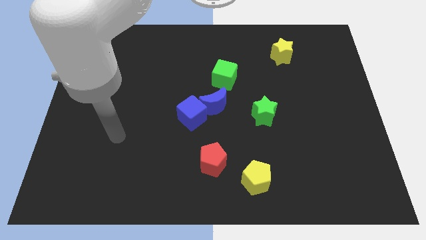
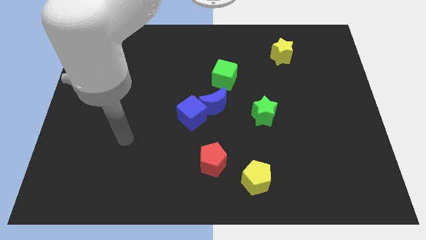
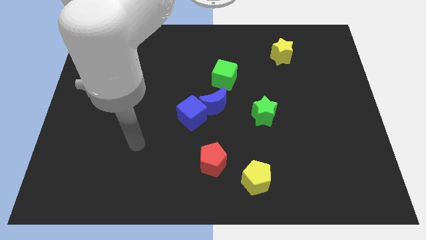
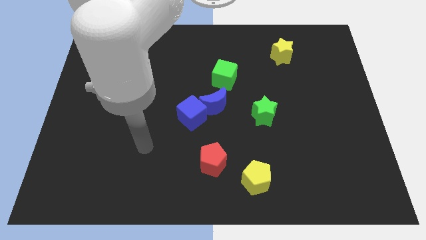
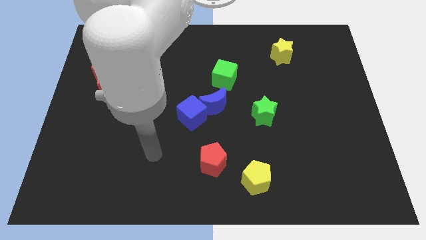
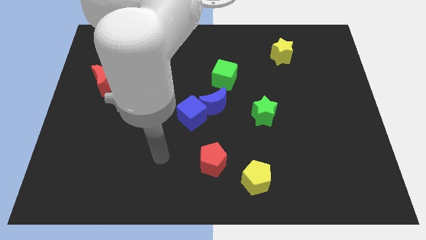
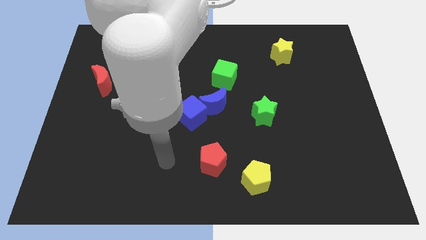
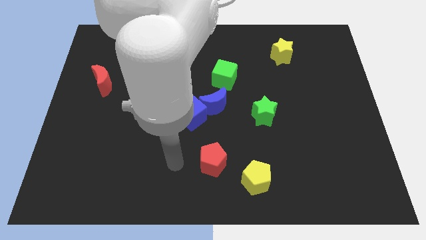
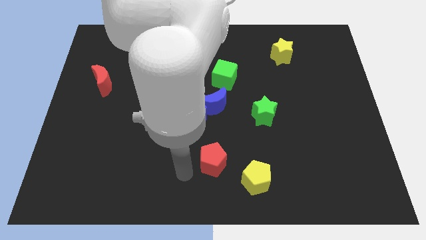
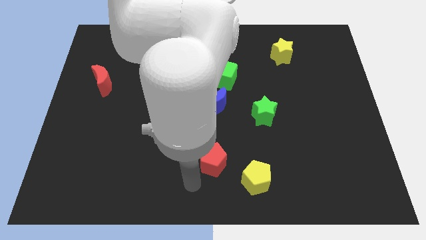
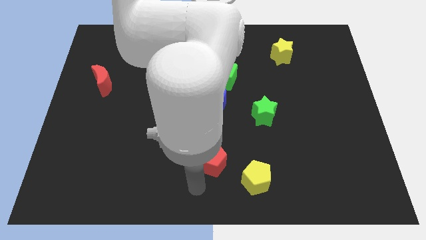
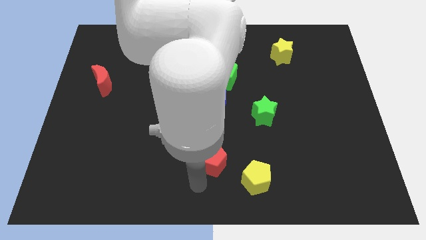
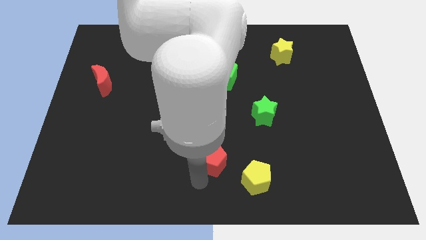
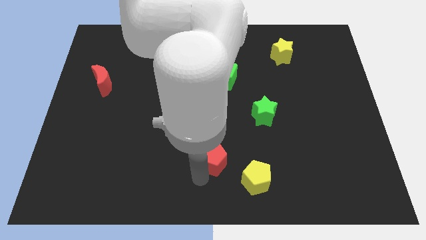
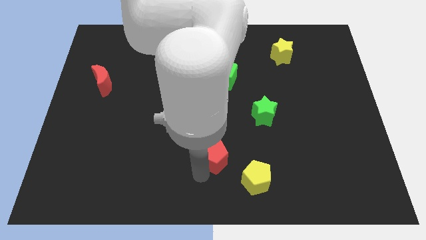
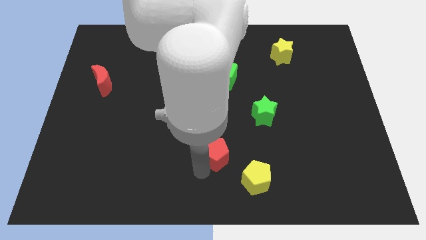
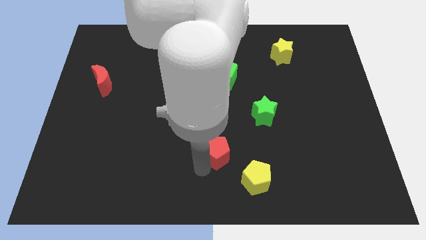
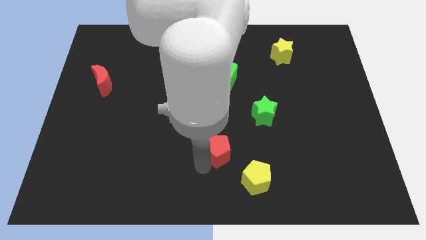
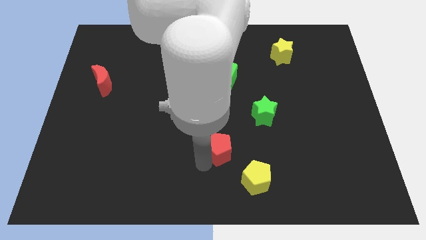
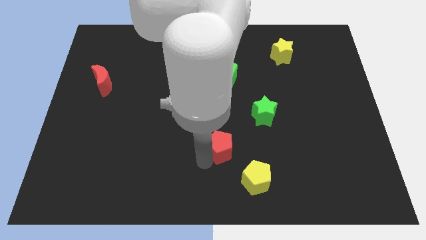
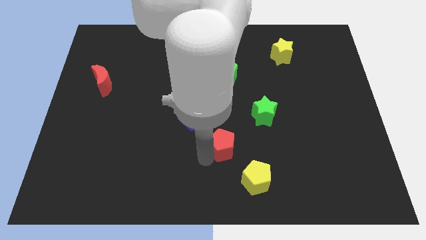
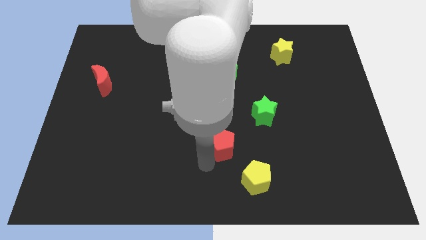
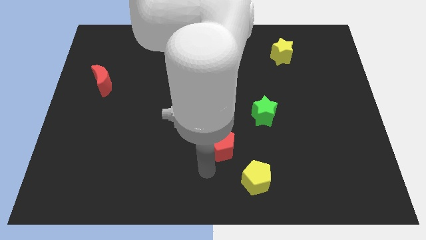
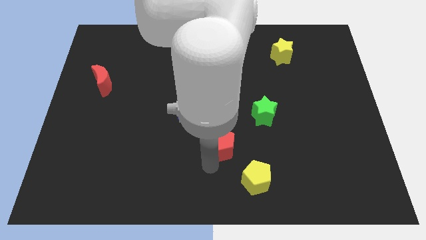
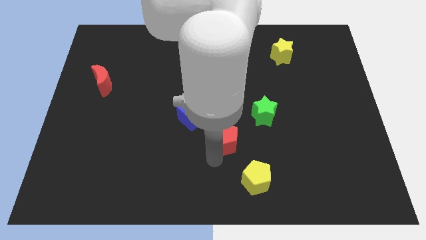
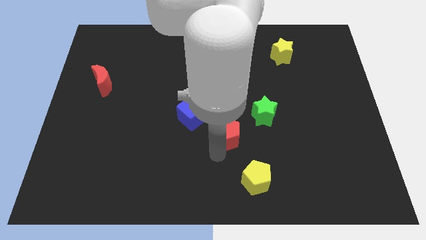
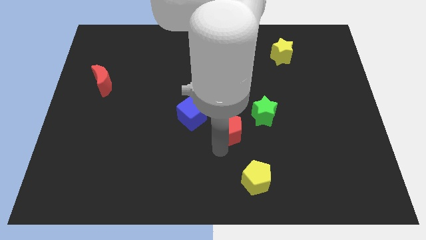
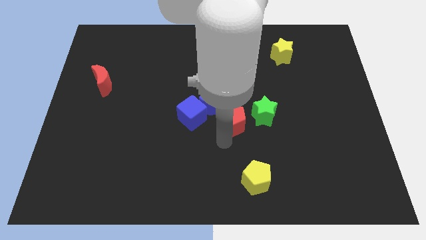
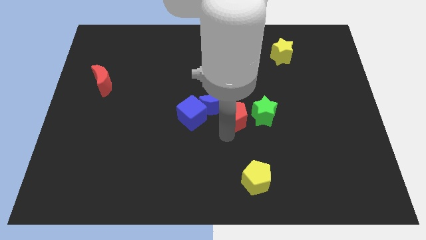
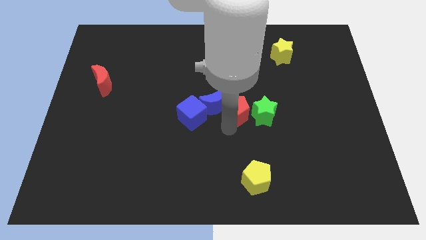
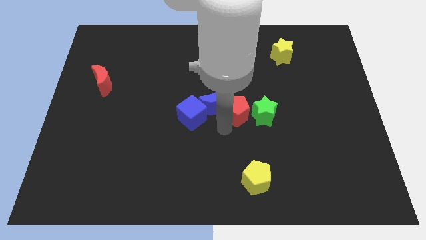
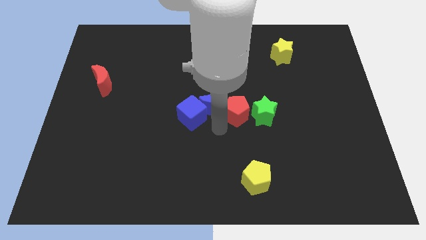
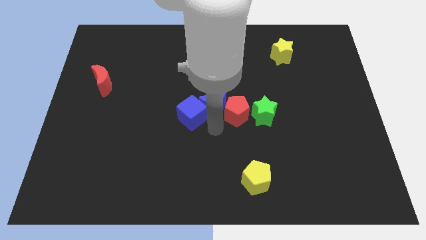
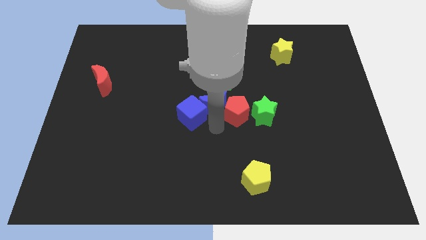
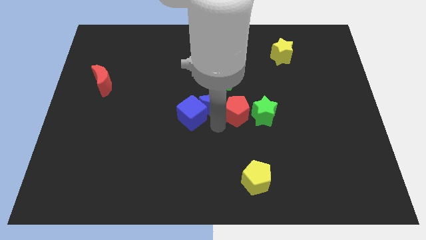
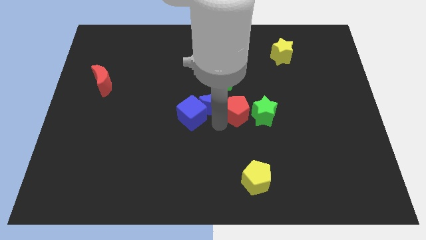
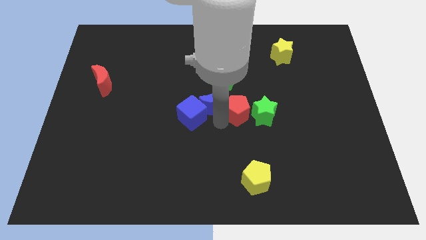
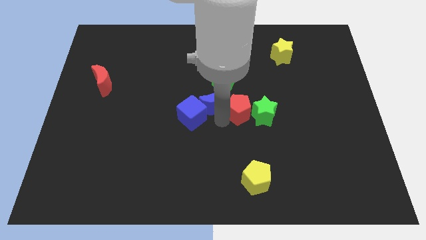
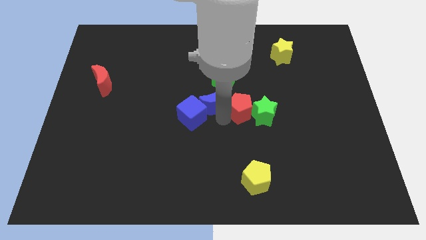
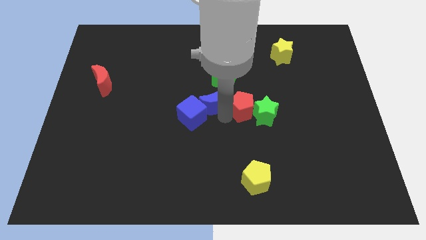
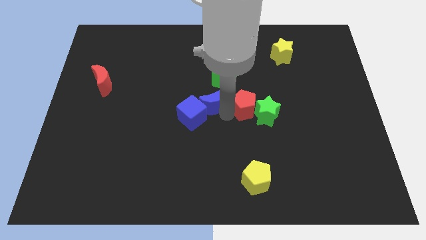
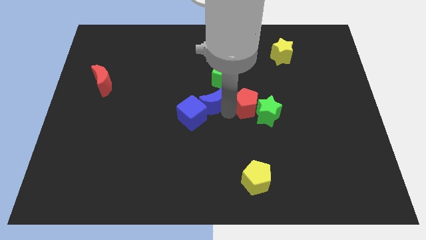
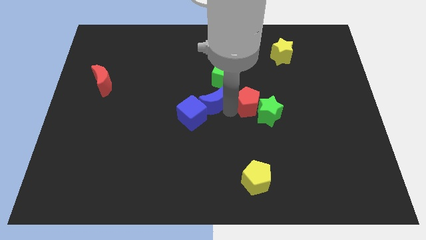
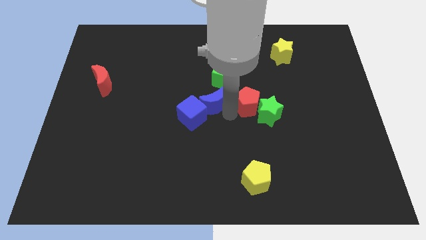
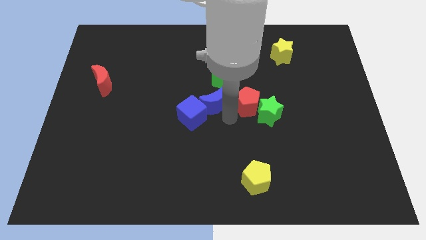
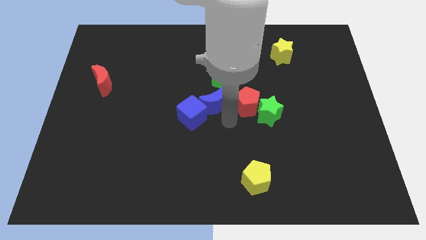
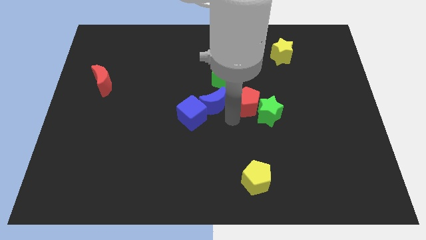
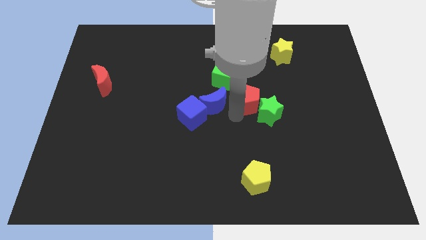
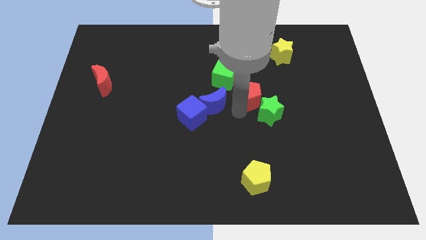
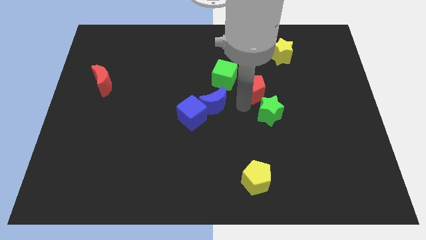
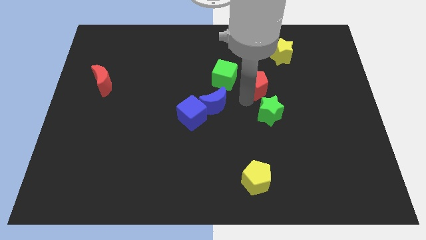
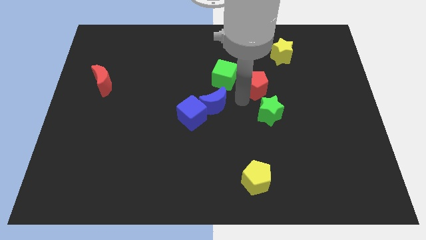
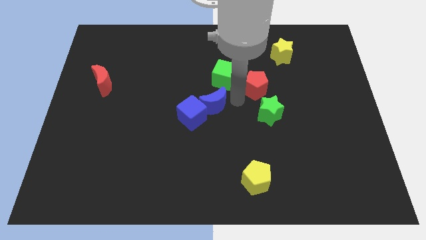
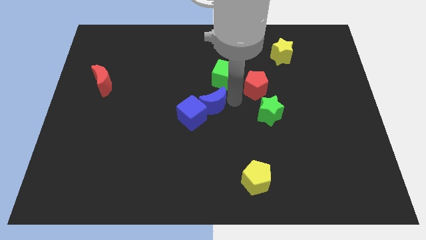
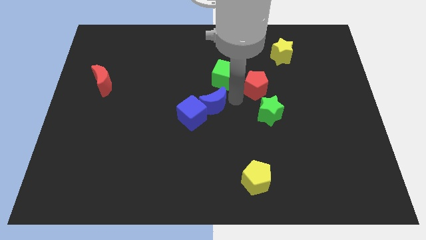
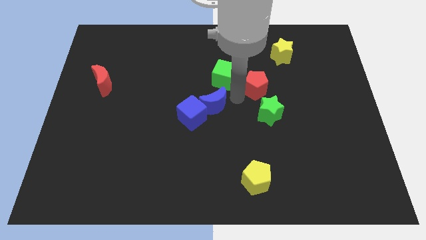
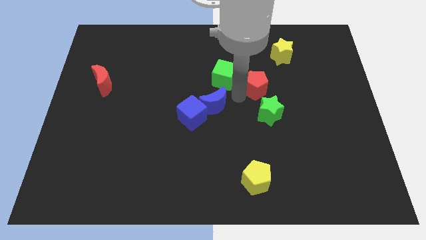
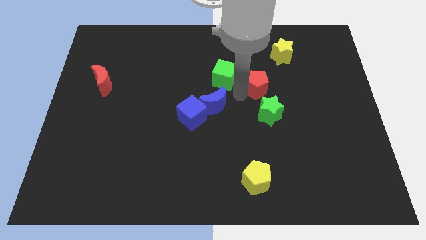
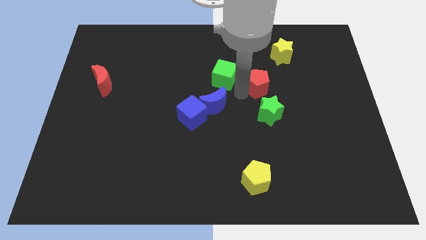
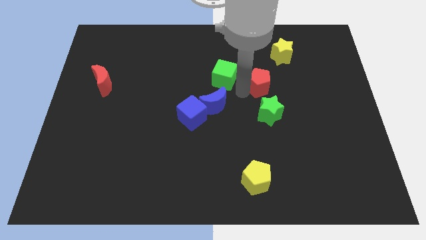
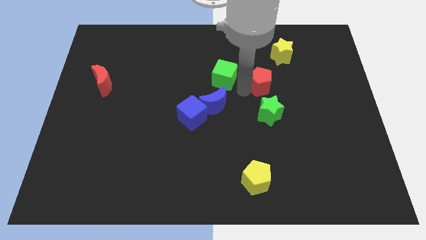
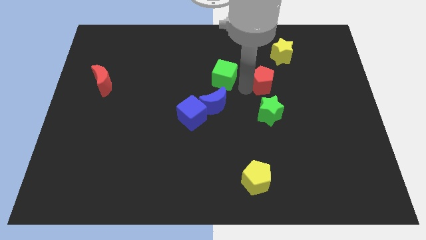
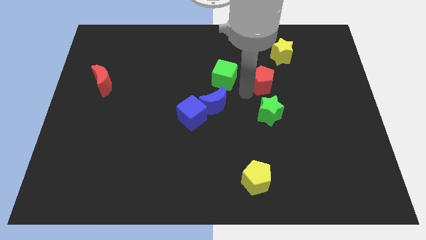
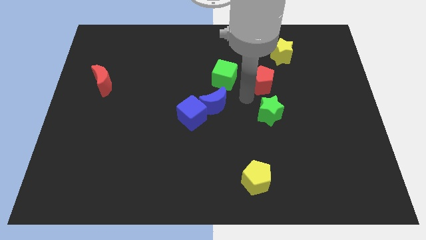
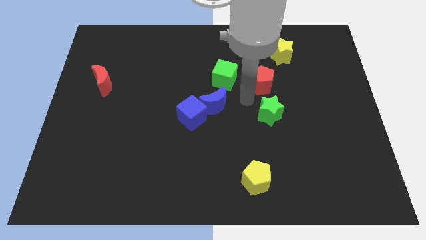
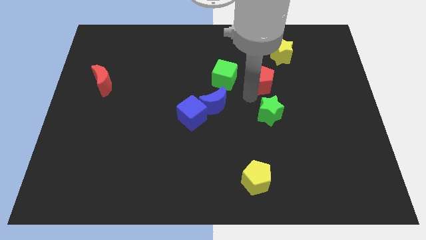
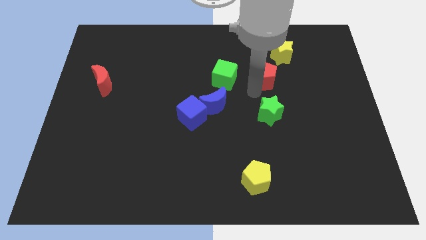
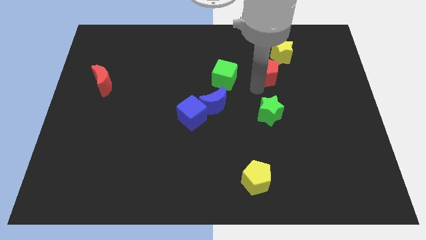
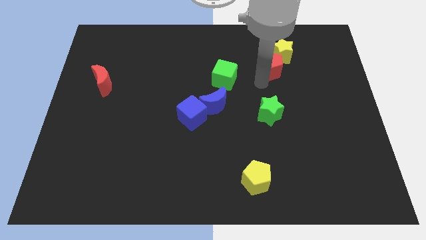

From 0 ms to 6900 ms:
slide the red pentagon next to the yellow star
